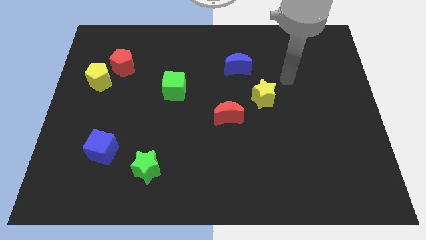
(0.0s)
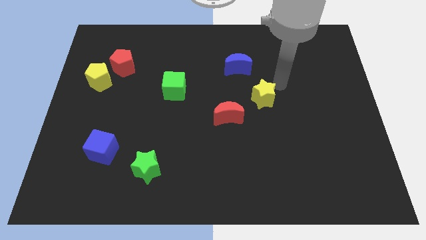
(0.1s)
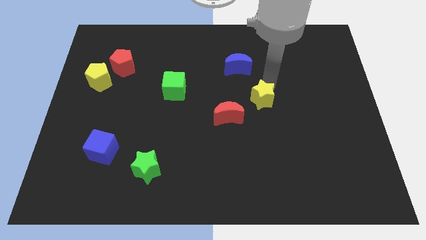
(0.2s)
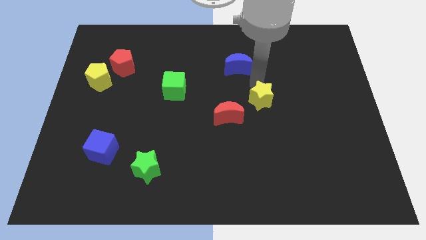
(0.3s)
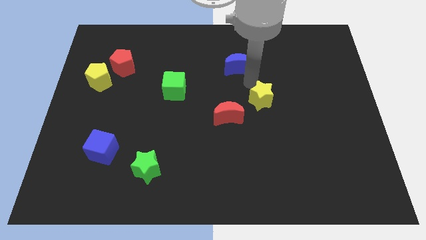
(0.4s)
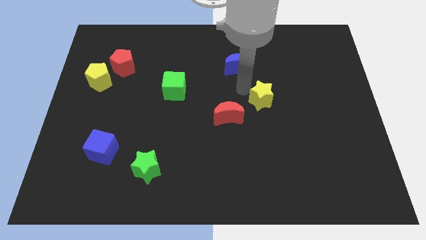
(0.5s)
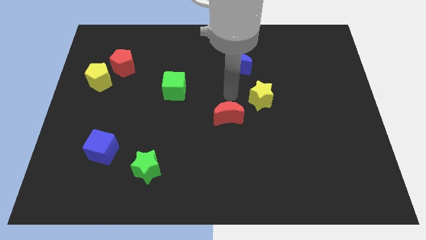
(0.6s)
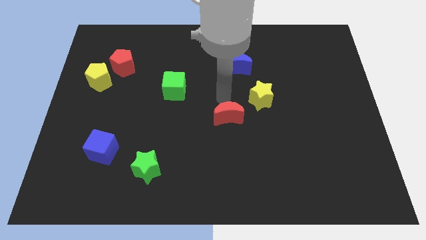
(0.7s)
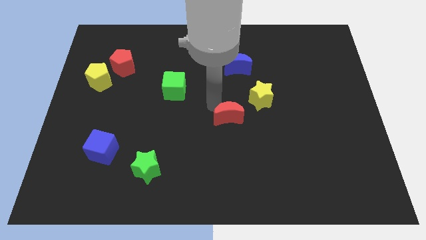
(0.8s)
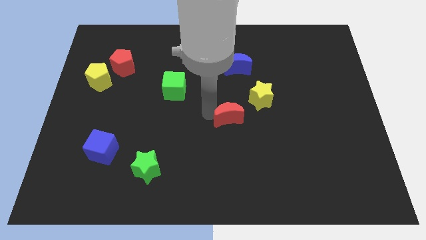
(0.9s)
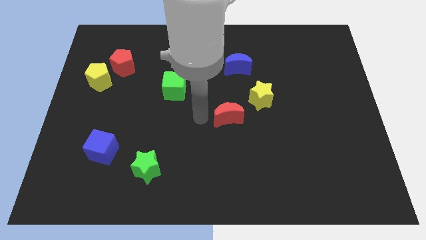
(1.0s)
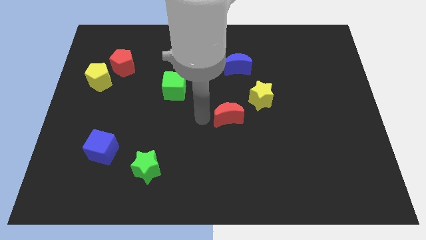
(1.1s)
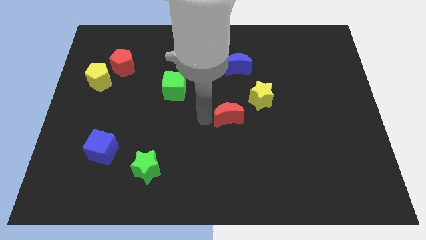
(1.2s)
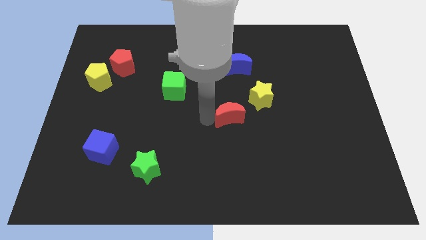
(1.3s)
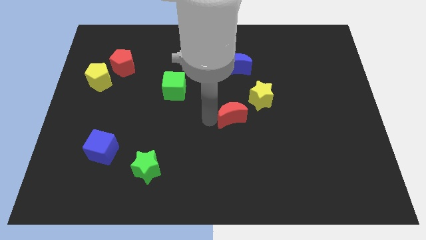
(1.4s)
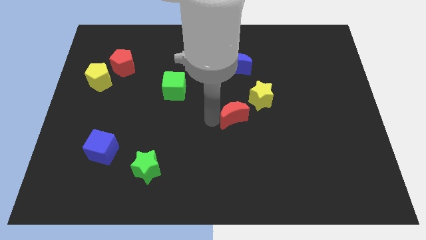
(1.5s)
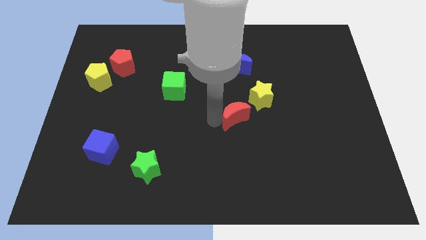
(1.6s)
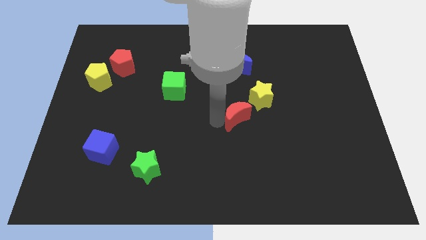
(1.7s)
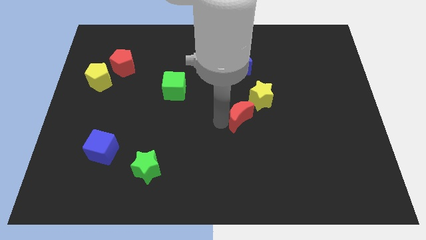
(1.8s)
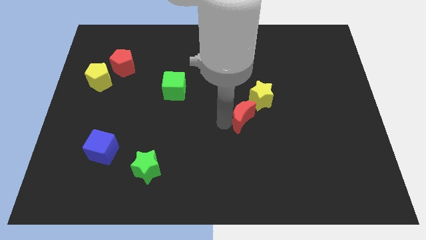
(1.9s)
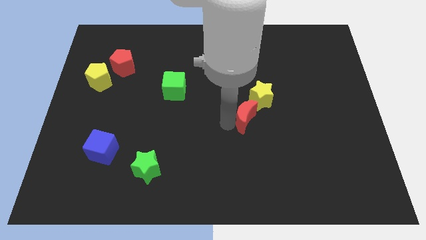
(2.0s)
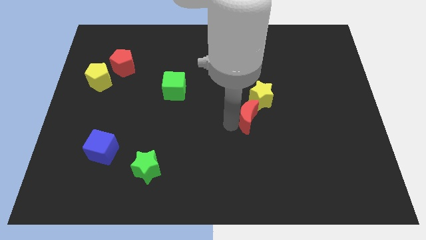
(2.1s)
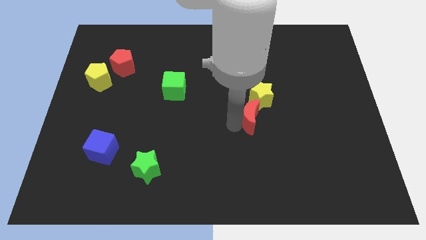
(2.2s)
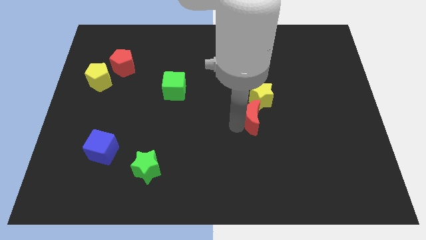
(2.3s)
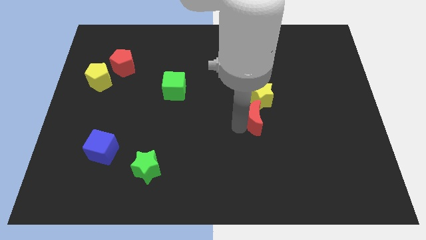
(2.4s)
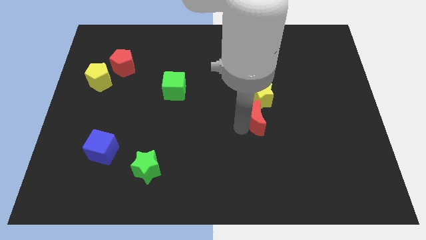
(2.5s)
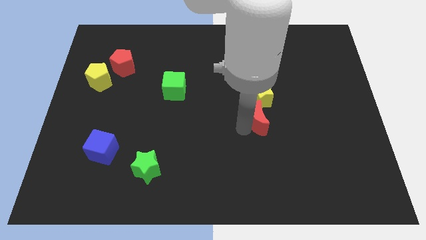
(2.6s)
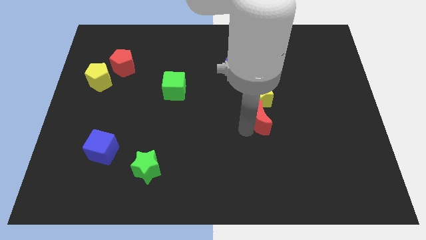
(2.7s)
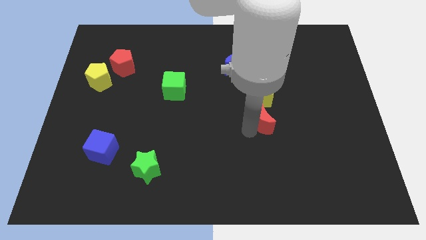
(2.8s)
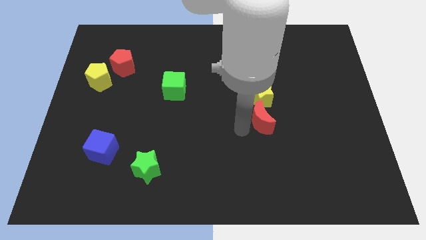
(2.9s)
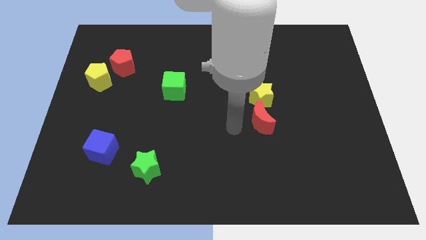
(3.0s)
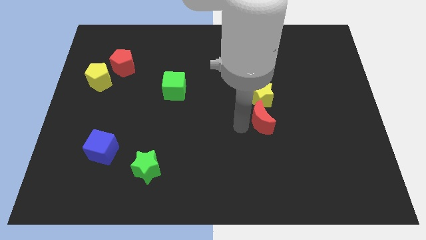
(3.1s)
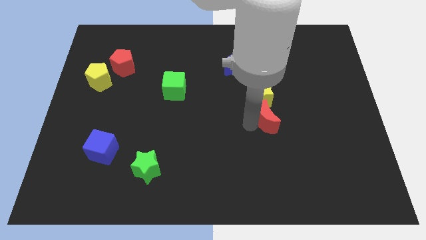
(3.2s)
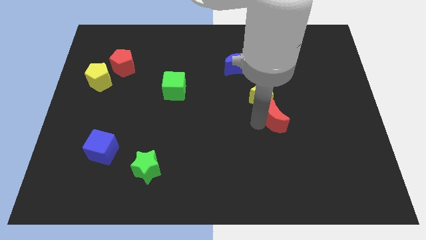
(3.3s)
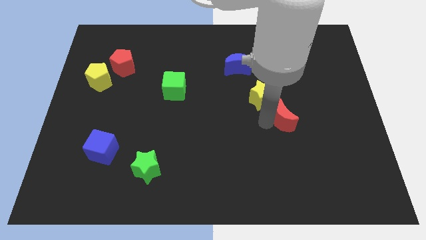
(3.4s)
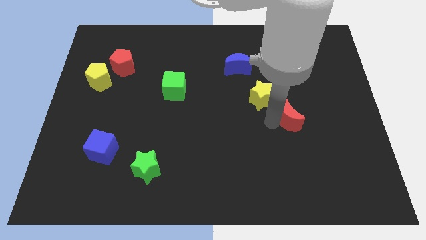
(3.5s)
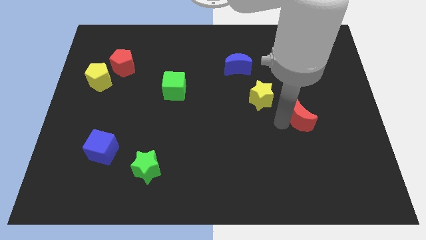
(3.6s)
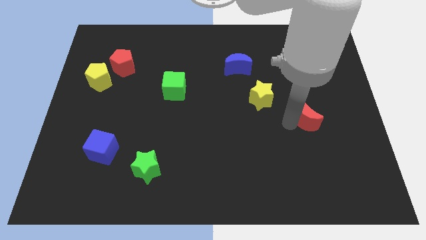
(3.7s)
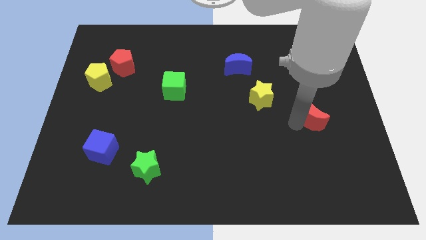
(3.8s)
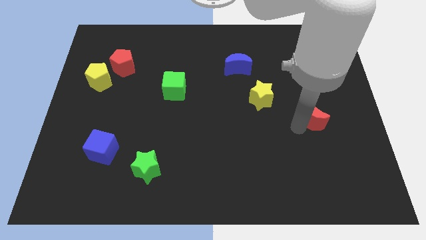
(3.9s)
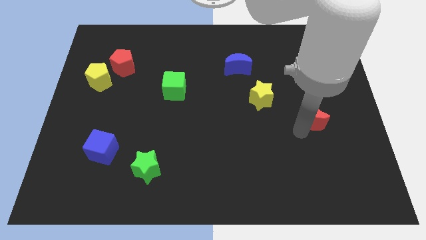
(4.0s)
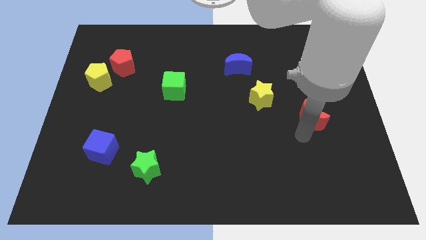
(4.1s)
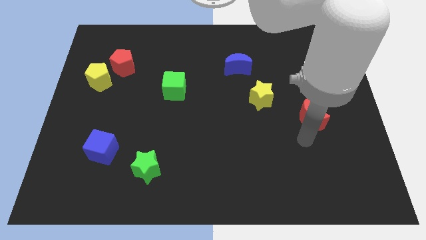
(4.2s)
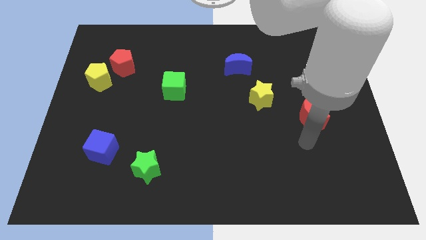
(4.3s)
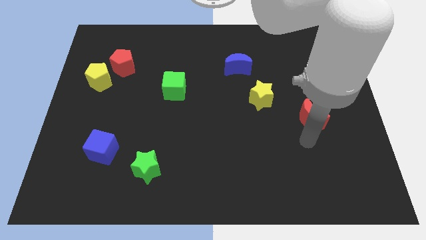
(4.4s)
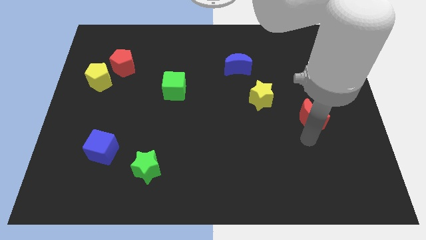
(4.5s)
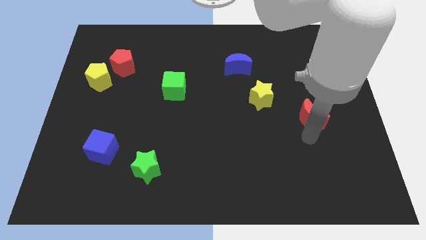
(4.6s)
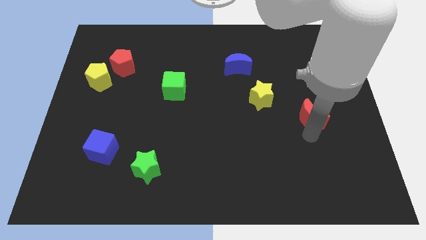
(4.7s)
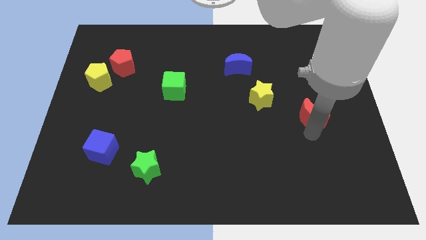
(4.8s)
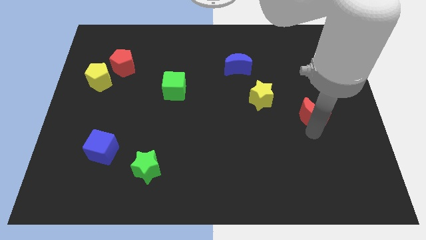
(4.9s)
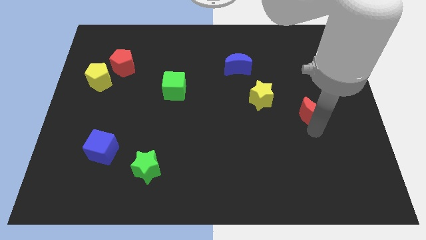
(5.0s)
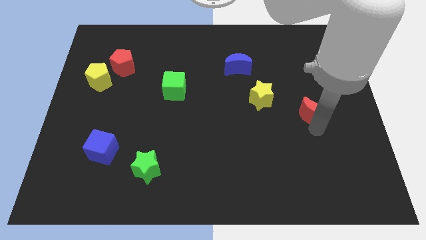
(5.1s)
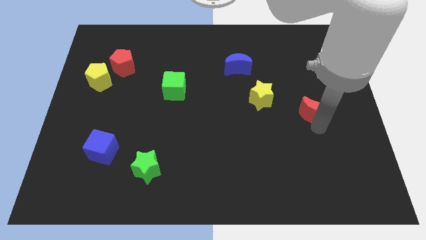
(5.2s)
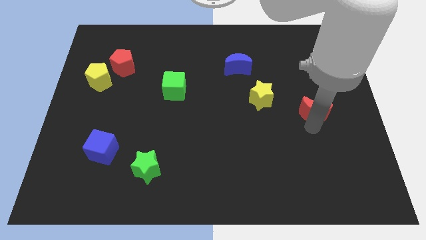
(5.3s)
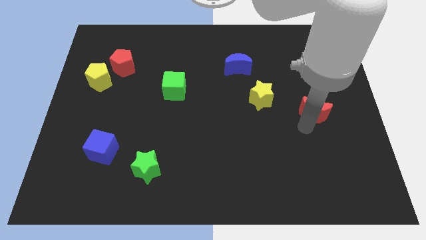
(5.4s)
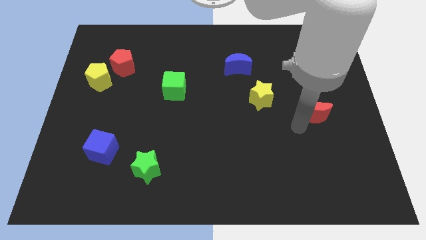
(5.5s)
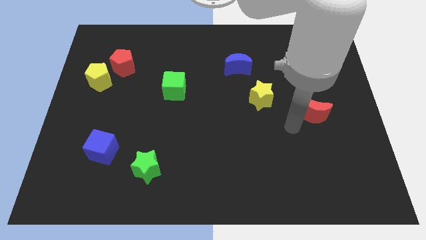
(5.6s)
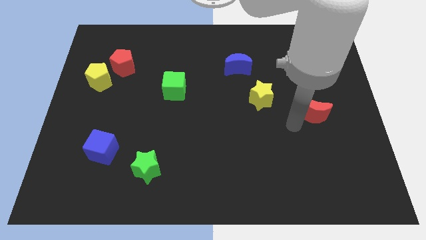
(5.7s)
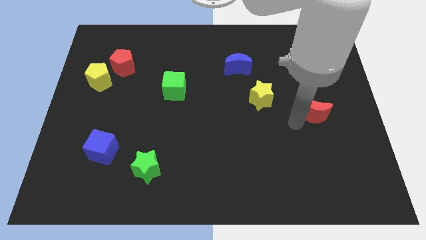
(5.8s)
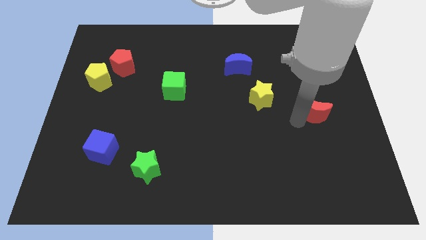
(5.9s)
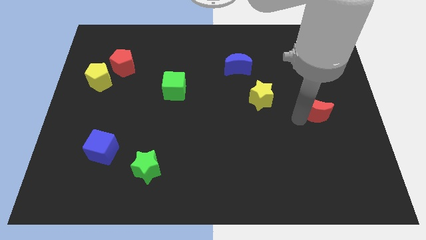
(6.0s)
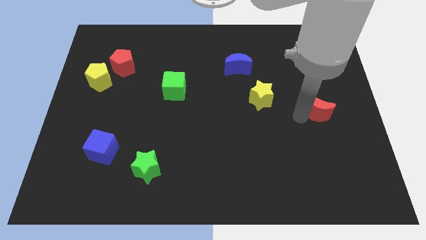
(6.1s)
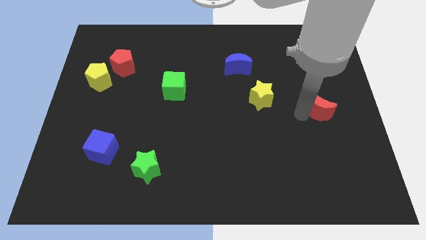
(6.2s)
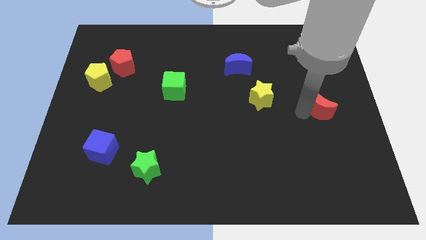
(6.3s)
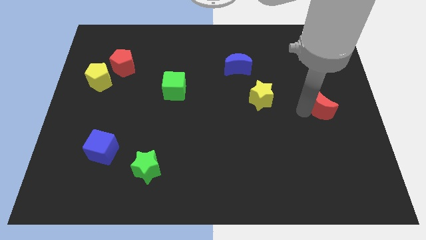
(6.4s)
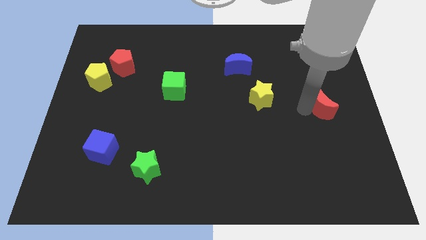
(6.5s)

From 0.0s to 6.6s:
move the red moon to the center right
